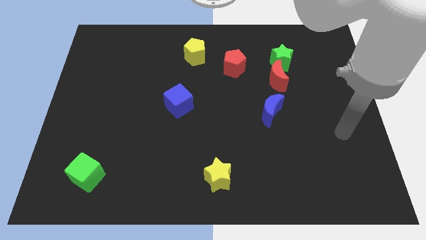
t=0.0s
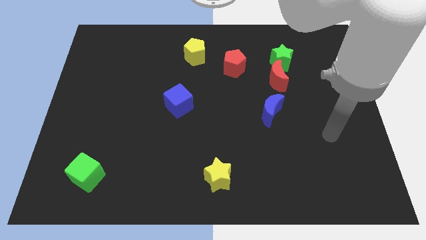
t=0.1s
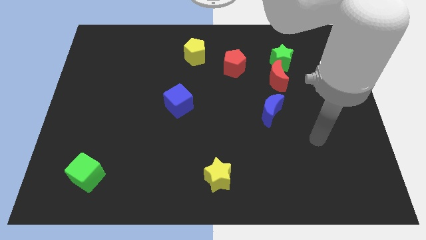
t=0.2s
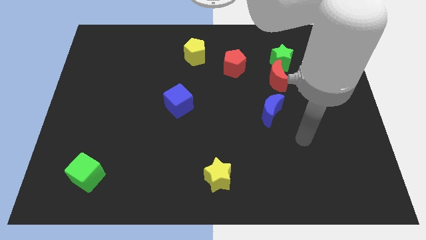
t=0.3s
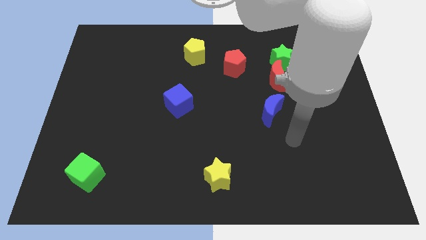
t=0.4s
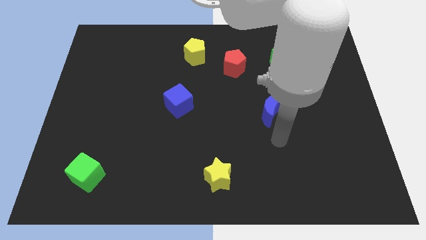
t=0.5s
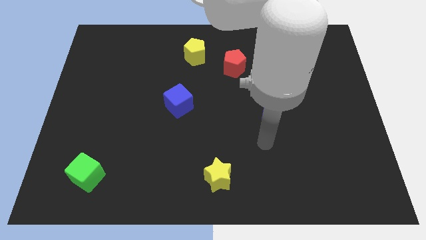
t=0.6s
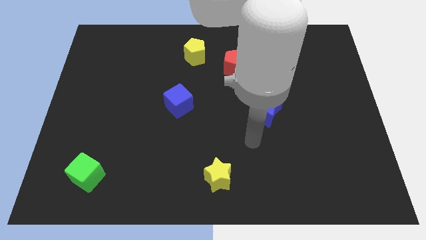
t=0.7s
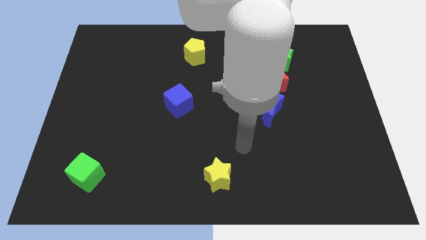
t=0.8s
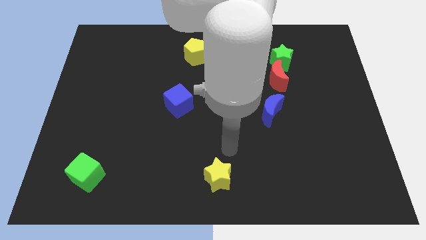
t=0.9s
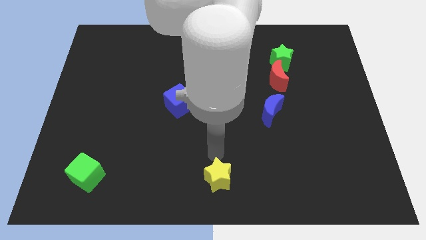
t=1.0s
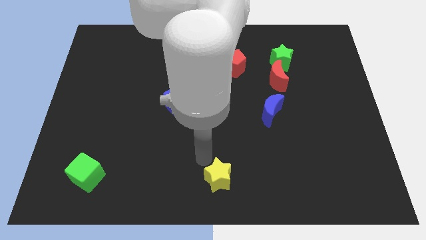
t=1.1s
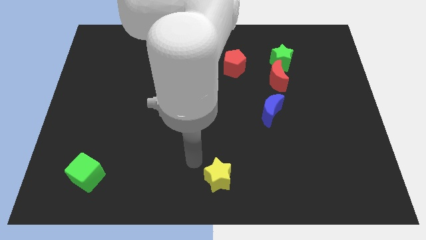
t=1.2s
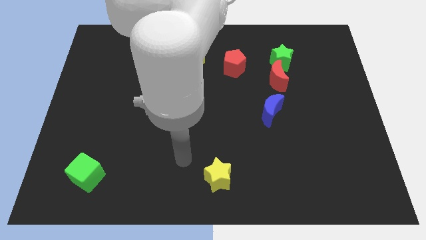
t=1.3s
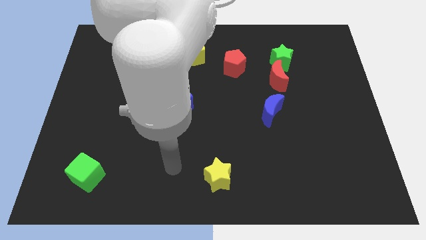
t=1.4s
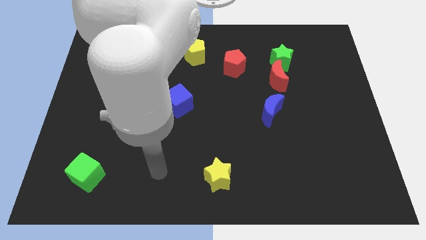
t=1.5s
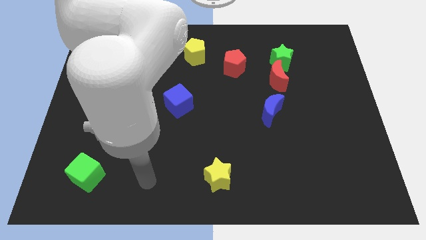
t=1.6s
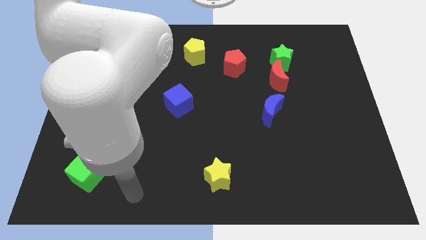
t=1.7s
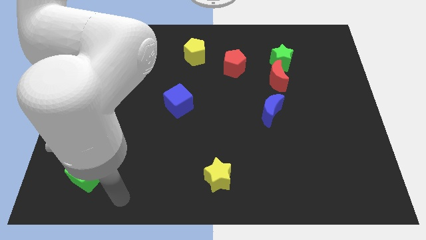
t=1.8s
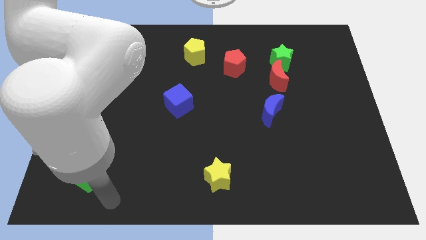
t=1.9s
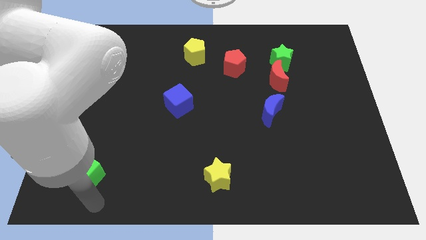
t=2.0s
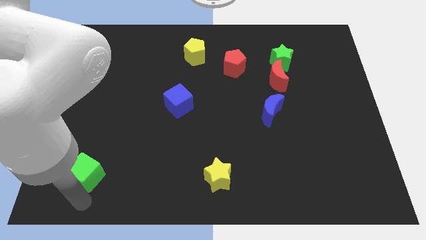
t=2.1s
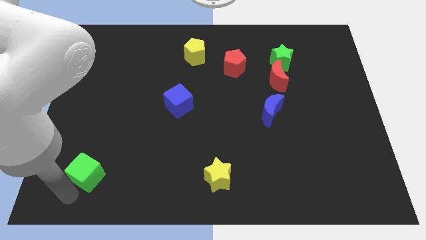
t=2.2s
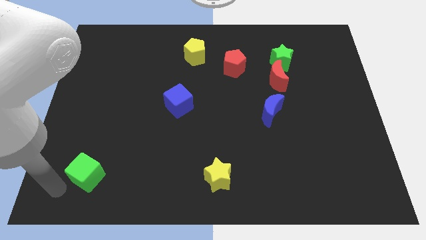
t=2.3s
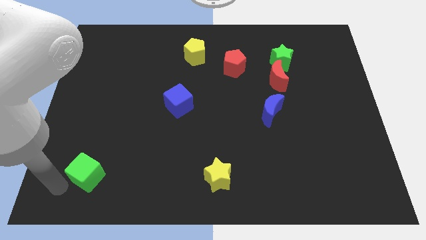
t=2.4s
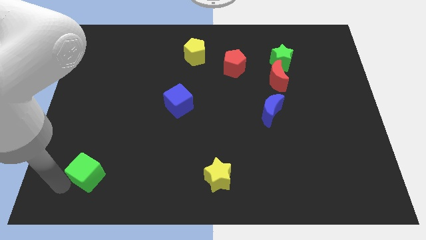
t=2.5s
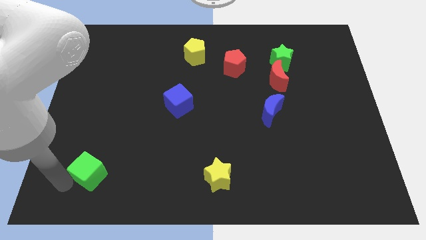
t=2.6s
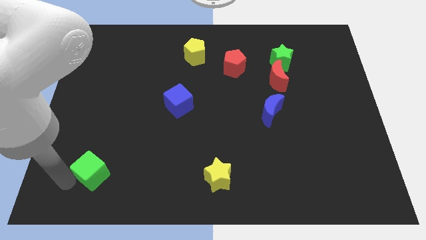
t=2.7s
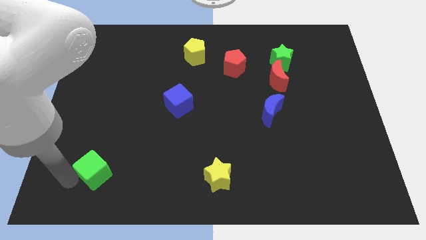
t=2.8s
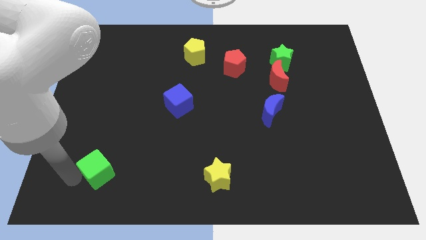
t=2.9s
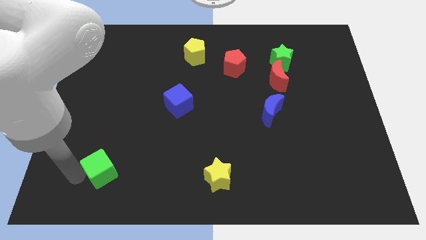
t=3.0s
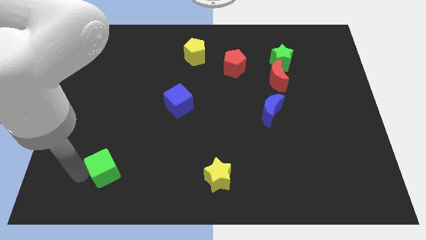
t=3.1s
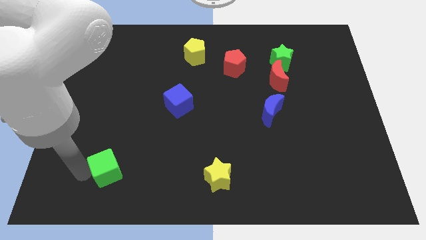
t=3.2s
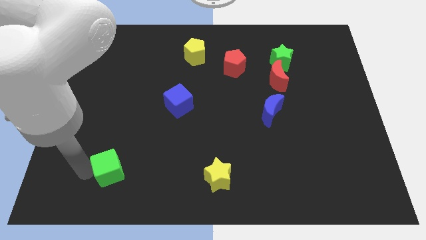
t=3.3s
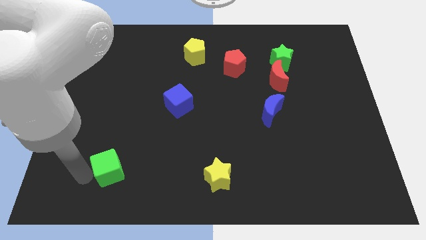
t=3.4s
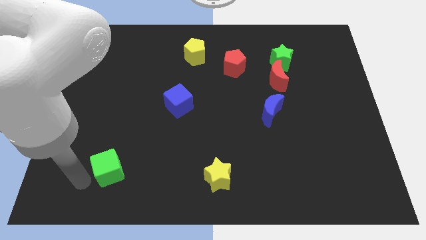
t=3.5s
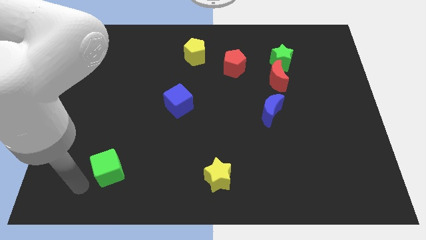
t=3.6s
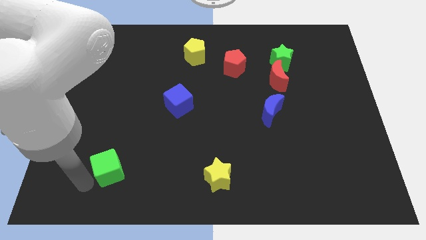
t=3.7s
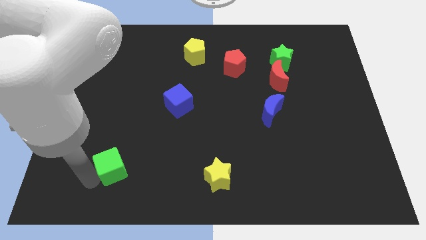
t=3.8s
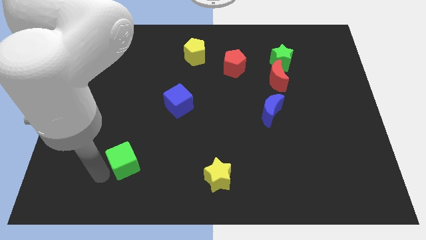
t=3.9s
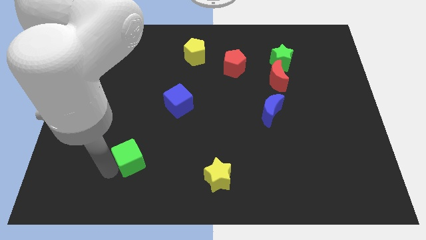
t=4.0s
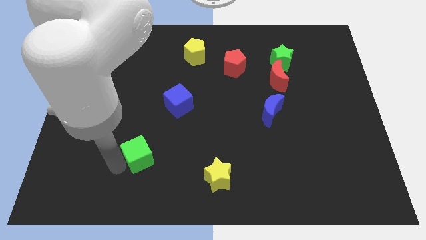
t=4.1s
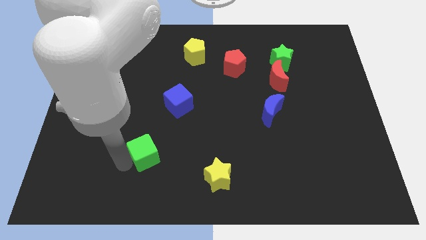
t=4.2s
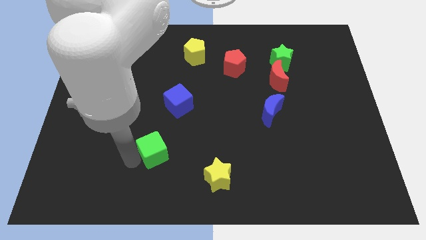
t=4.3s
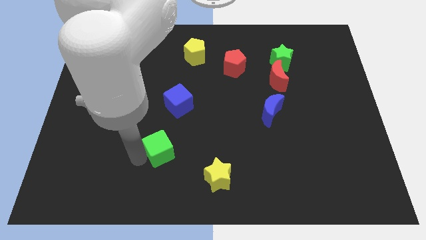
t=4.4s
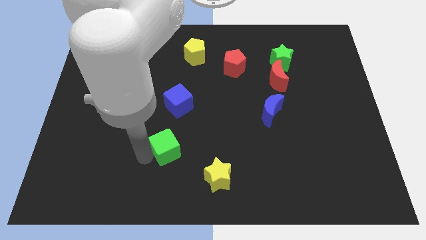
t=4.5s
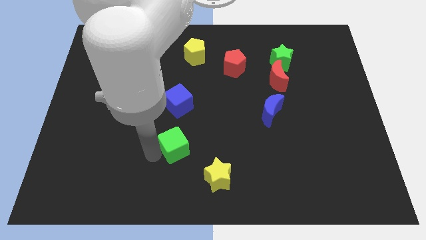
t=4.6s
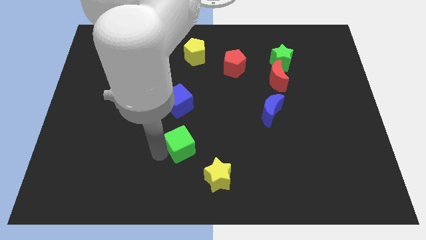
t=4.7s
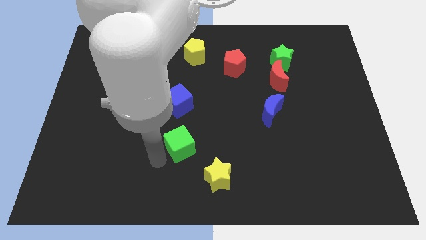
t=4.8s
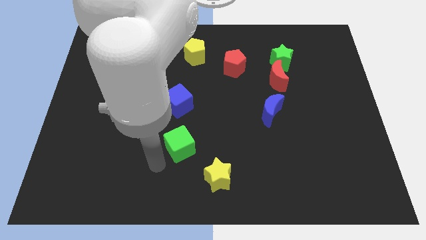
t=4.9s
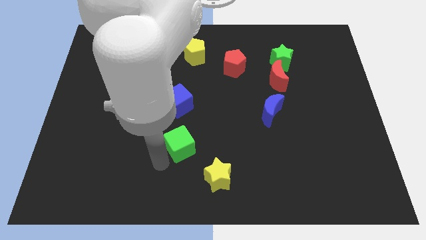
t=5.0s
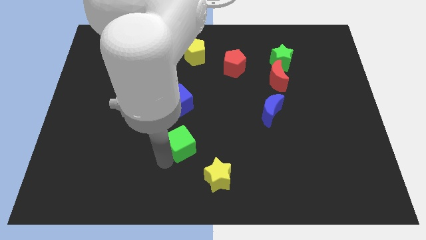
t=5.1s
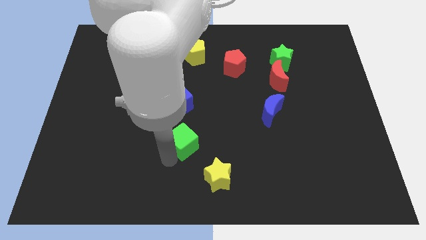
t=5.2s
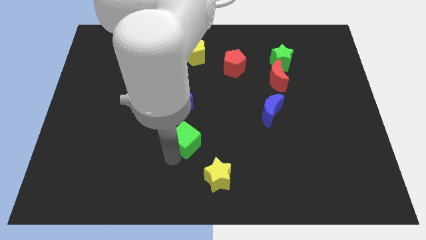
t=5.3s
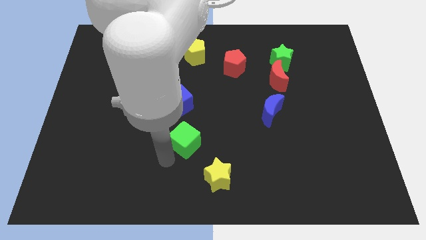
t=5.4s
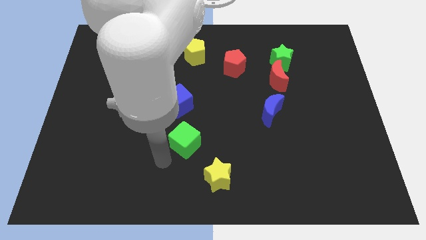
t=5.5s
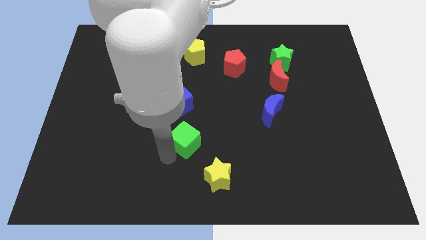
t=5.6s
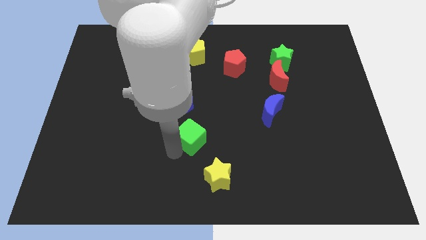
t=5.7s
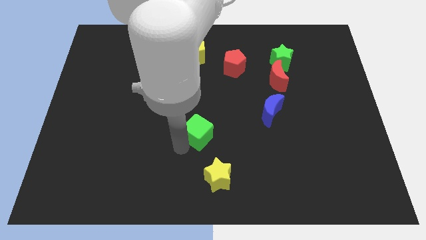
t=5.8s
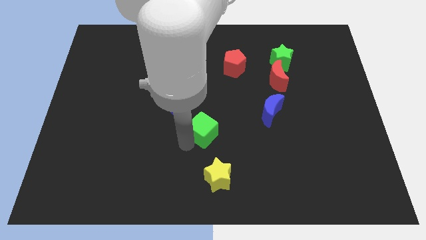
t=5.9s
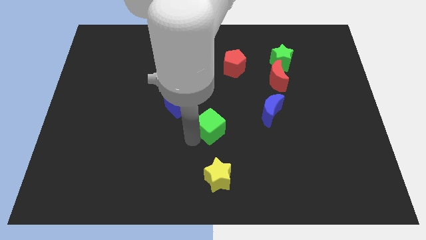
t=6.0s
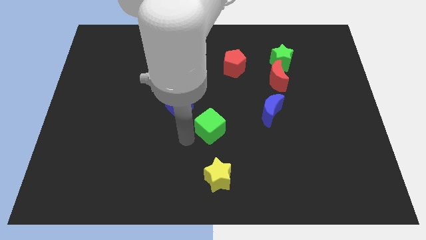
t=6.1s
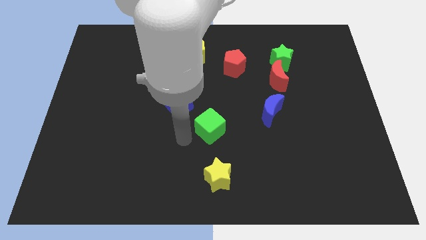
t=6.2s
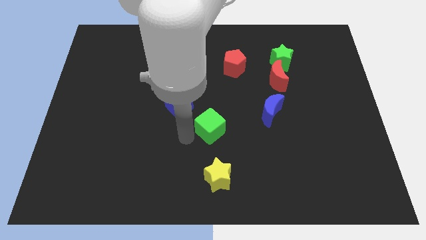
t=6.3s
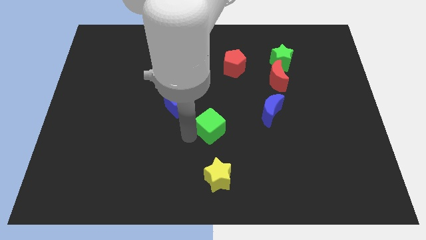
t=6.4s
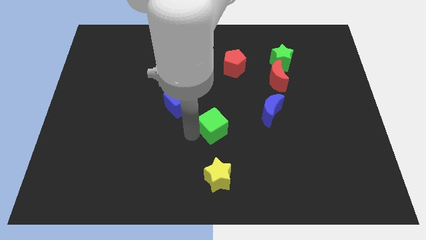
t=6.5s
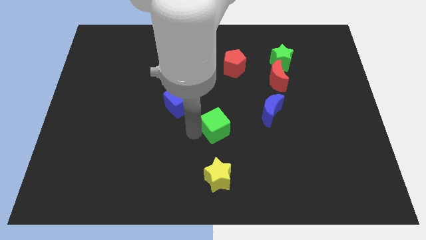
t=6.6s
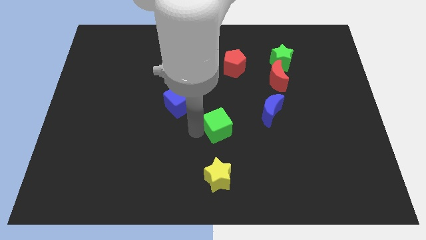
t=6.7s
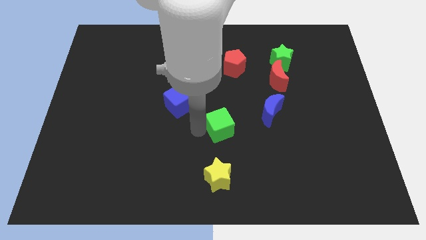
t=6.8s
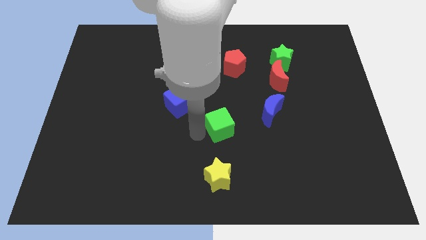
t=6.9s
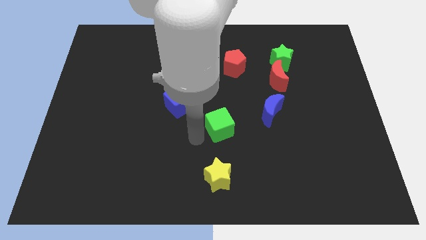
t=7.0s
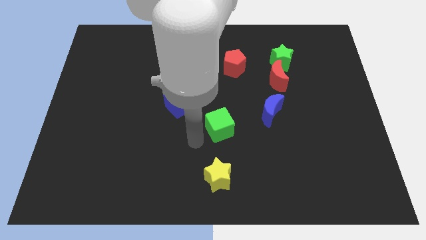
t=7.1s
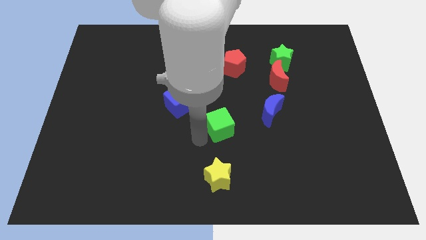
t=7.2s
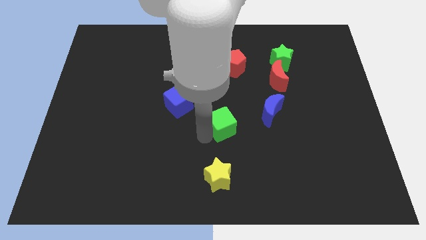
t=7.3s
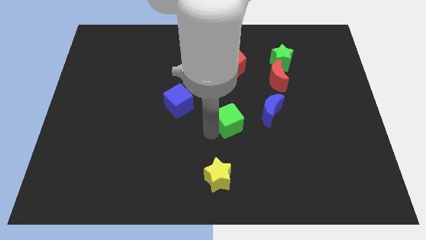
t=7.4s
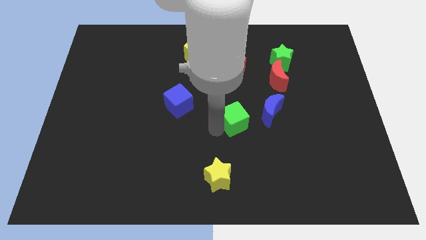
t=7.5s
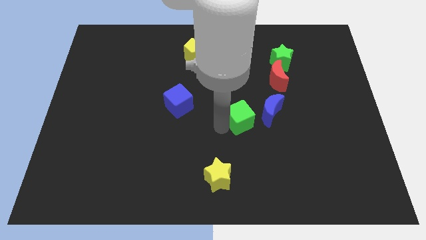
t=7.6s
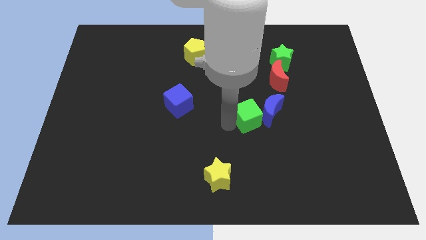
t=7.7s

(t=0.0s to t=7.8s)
push the green cube close to the blue moon
